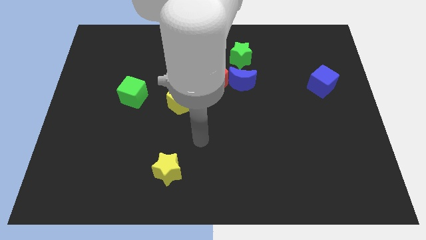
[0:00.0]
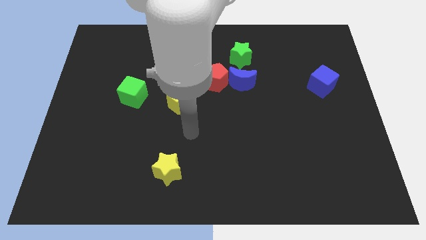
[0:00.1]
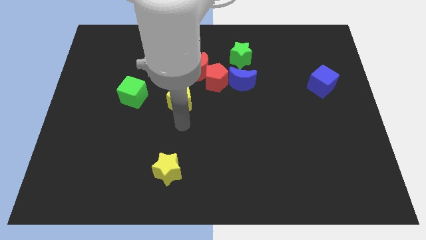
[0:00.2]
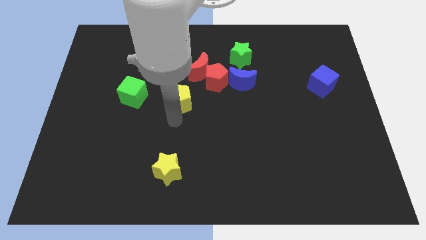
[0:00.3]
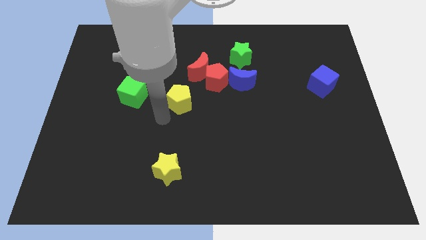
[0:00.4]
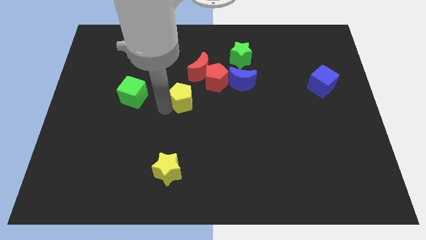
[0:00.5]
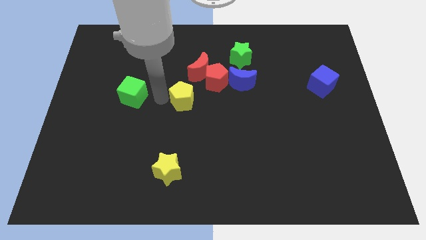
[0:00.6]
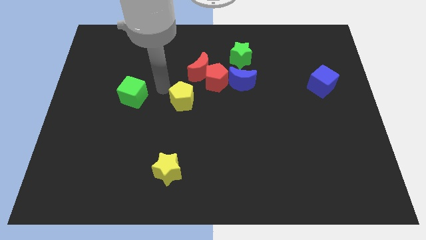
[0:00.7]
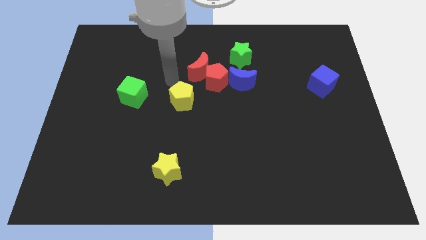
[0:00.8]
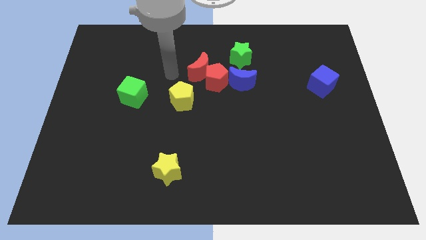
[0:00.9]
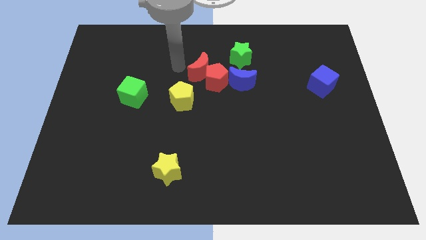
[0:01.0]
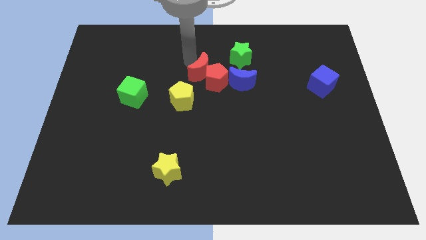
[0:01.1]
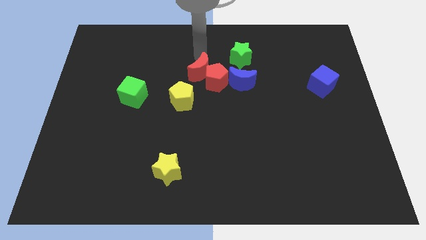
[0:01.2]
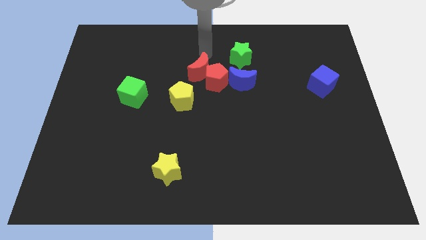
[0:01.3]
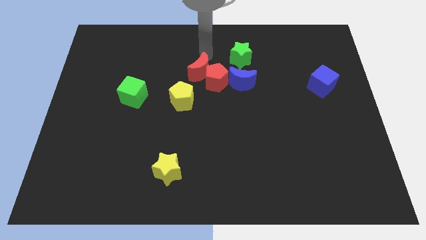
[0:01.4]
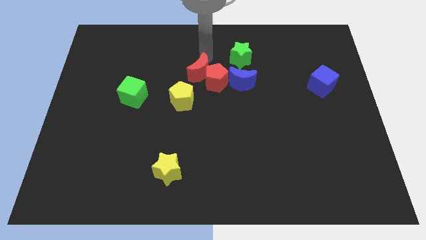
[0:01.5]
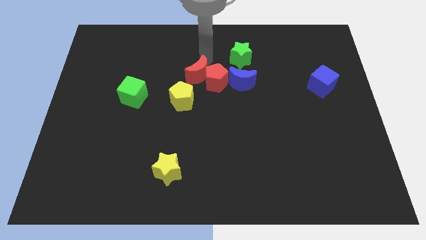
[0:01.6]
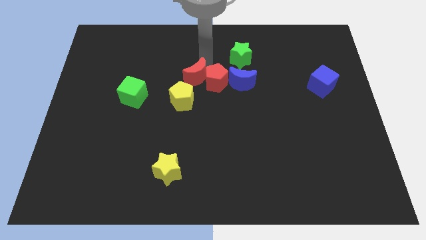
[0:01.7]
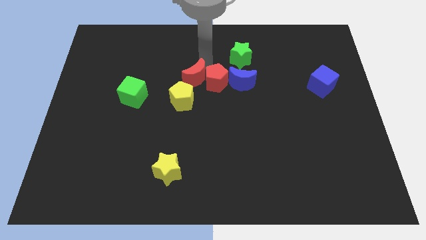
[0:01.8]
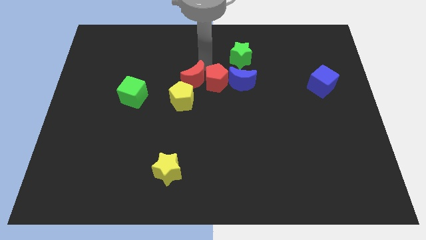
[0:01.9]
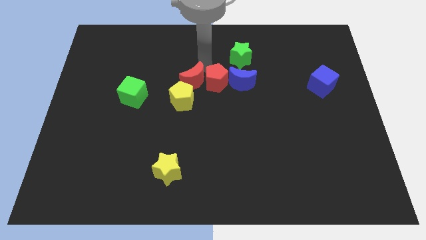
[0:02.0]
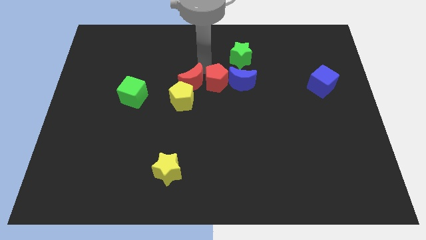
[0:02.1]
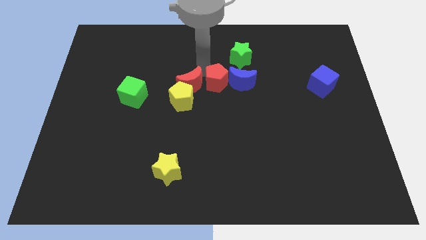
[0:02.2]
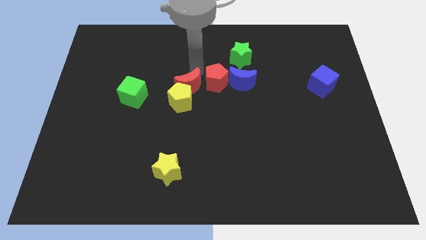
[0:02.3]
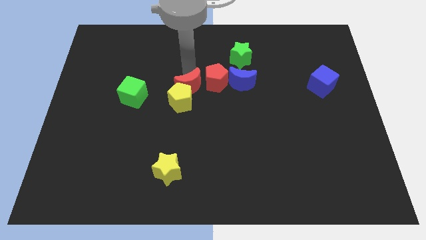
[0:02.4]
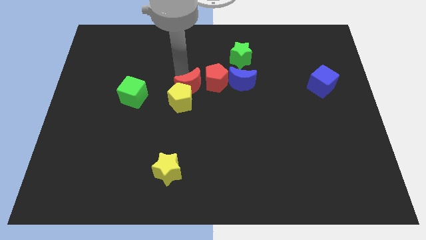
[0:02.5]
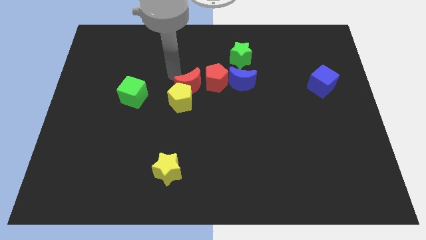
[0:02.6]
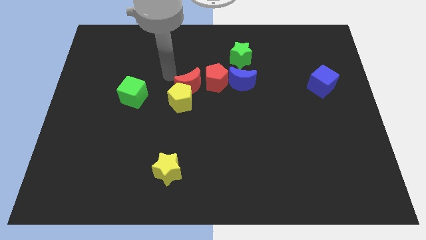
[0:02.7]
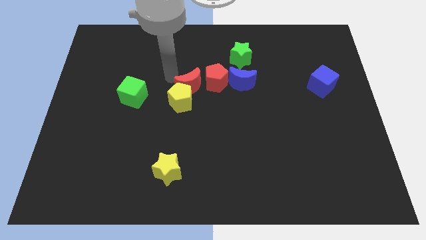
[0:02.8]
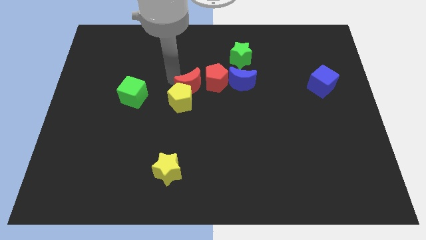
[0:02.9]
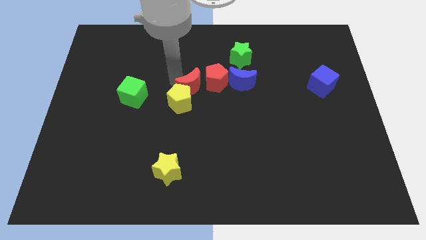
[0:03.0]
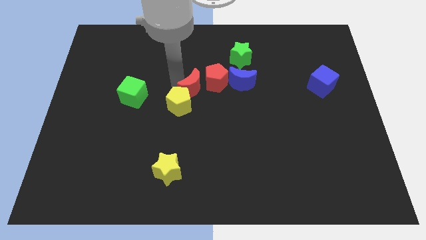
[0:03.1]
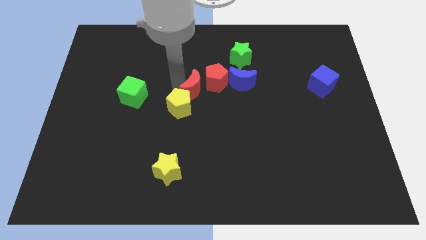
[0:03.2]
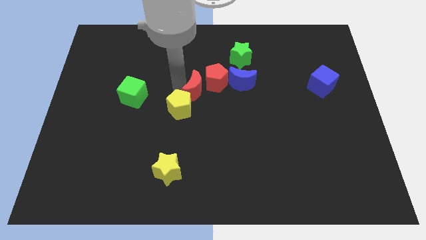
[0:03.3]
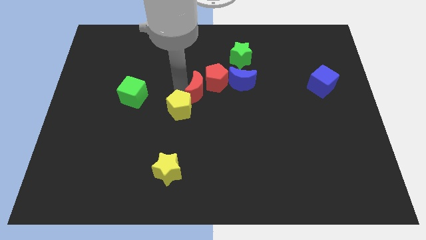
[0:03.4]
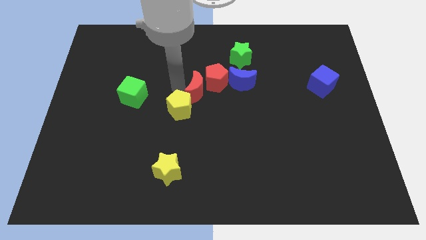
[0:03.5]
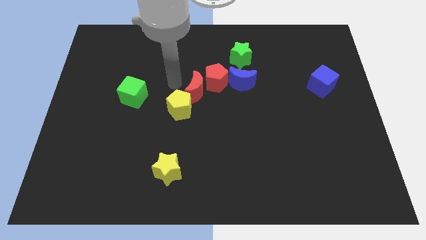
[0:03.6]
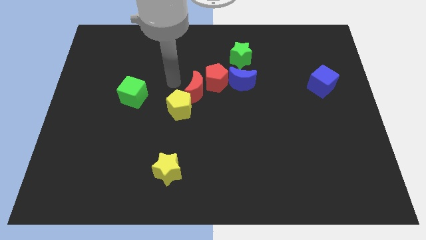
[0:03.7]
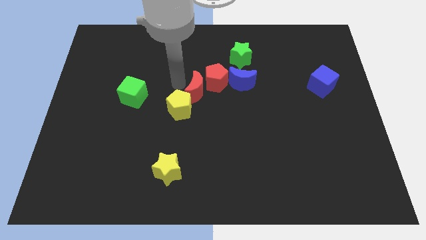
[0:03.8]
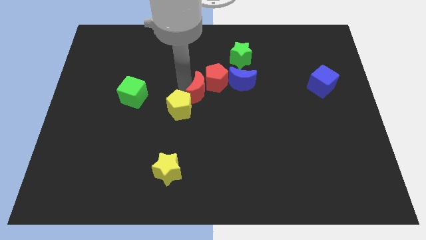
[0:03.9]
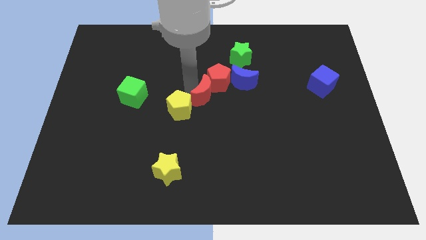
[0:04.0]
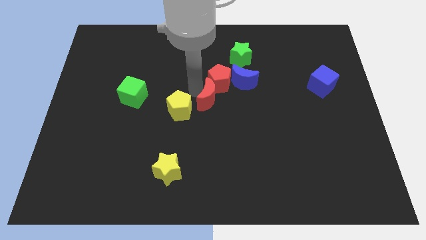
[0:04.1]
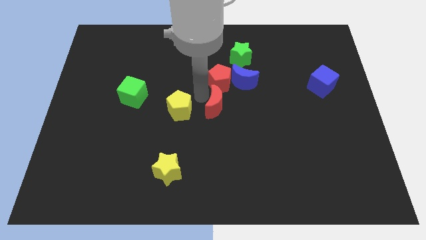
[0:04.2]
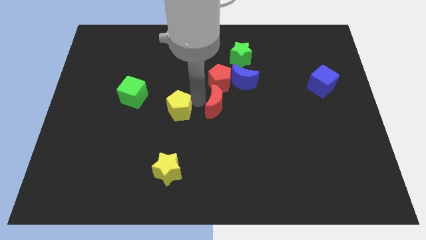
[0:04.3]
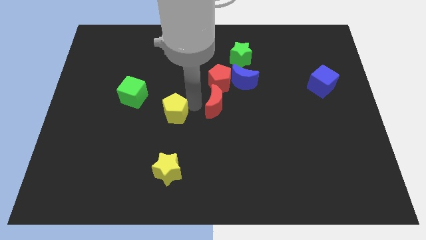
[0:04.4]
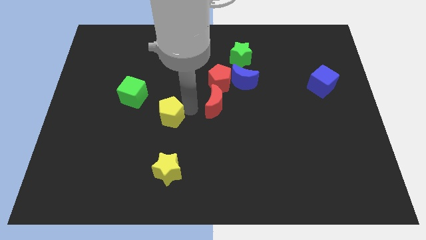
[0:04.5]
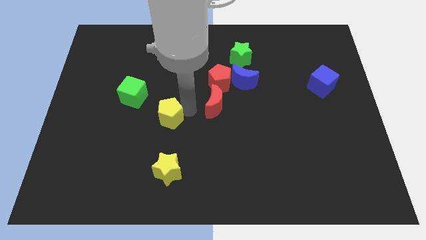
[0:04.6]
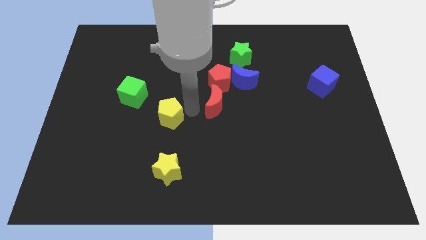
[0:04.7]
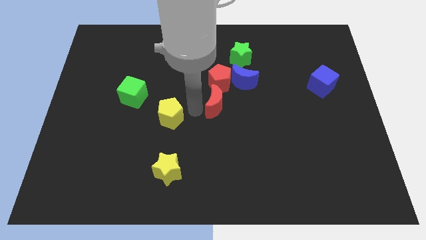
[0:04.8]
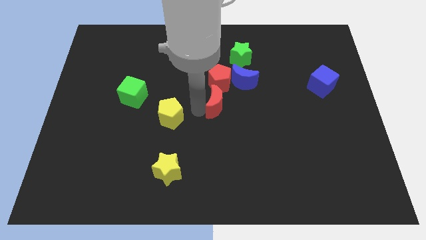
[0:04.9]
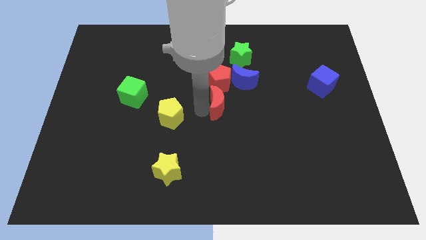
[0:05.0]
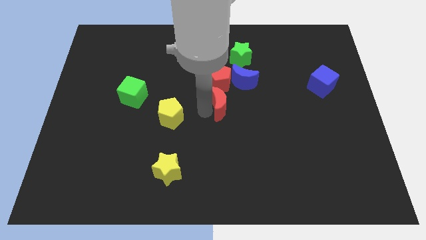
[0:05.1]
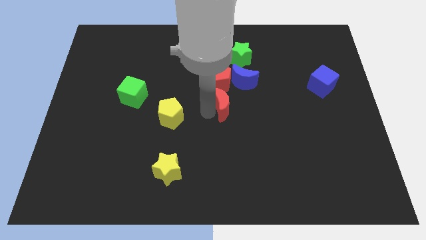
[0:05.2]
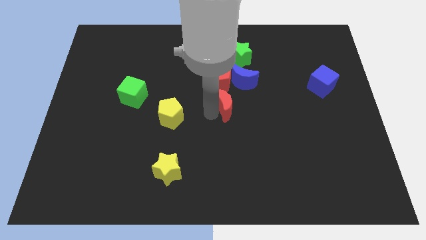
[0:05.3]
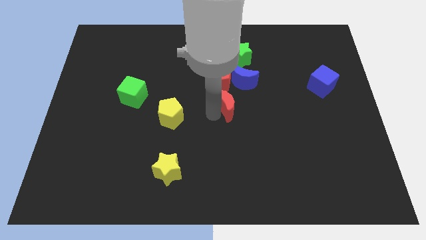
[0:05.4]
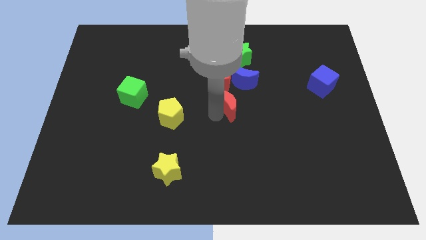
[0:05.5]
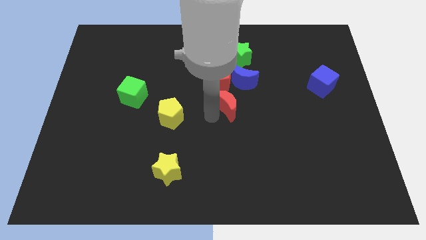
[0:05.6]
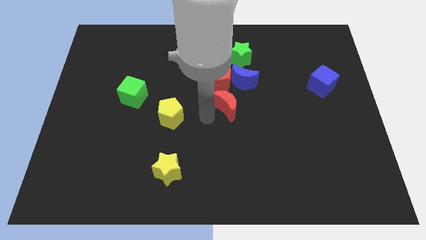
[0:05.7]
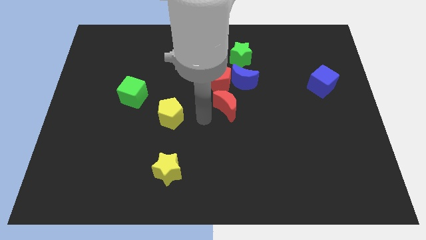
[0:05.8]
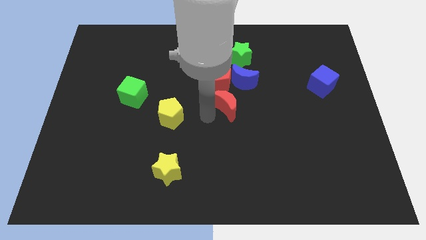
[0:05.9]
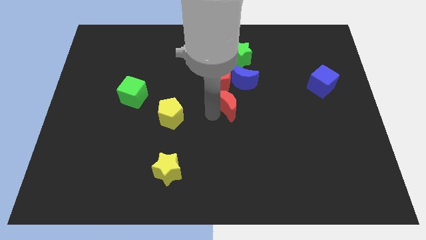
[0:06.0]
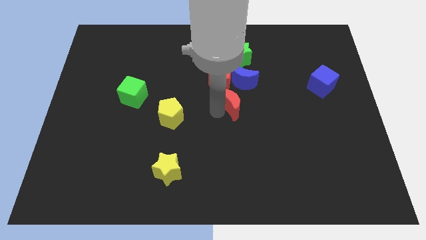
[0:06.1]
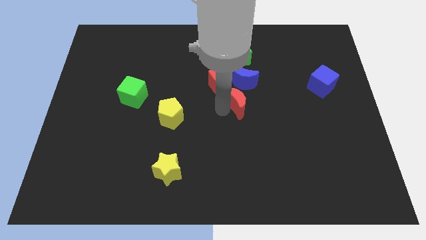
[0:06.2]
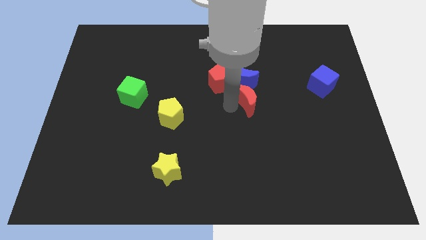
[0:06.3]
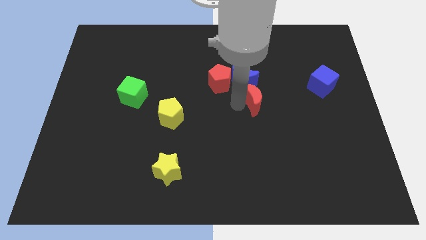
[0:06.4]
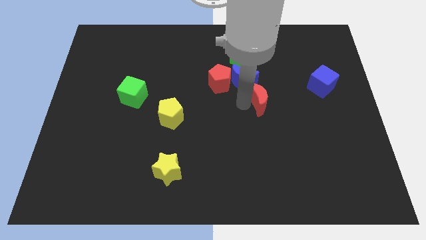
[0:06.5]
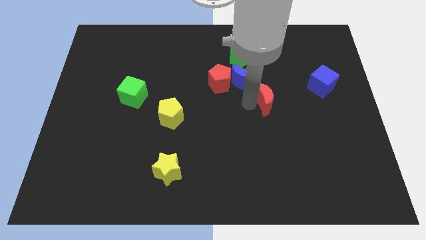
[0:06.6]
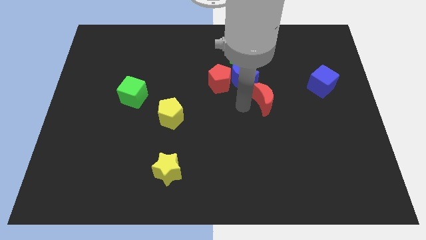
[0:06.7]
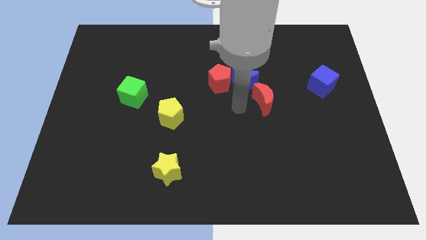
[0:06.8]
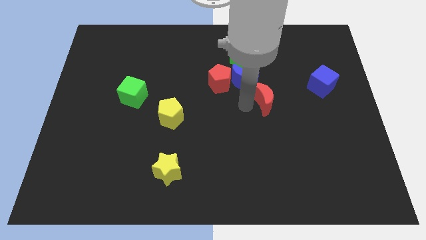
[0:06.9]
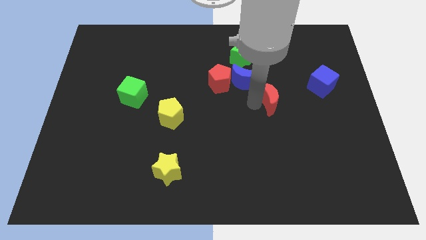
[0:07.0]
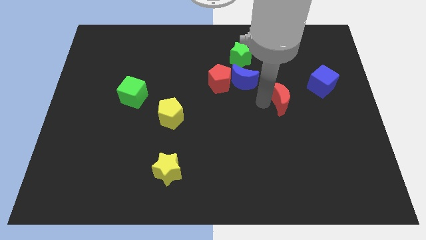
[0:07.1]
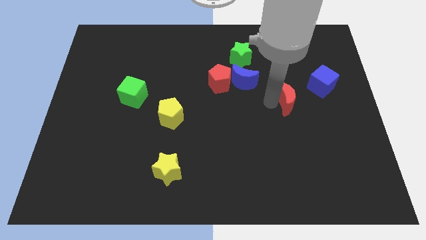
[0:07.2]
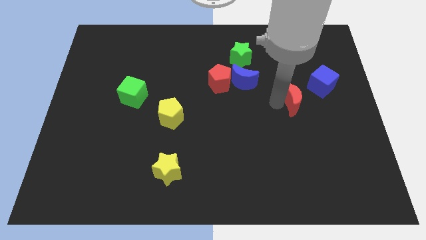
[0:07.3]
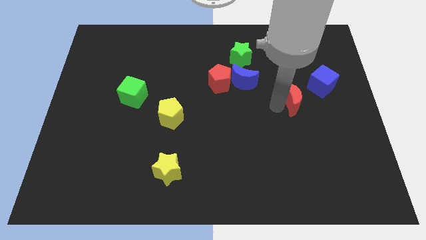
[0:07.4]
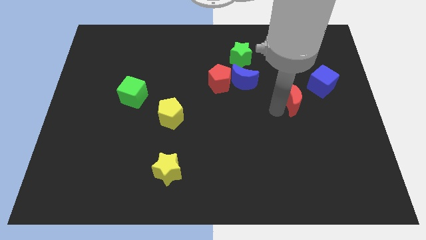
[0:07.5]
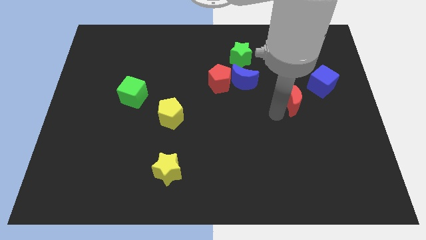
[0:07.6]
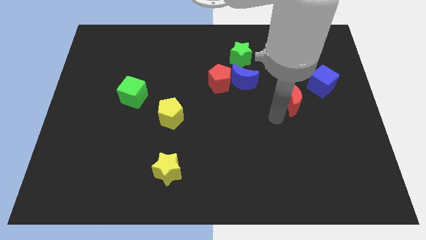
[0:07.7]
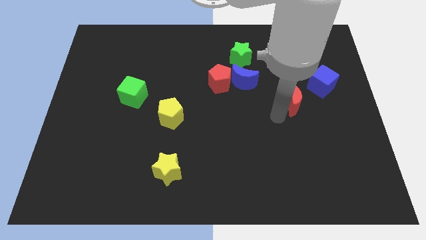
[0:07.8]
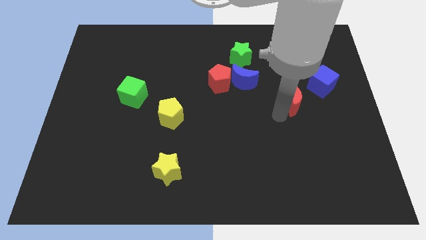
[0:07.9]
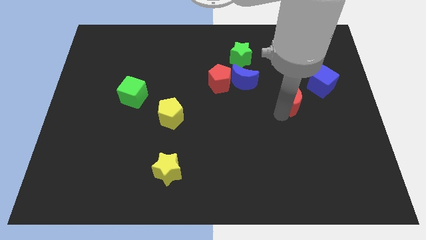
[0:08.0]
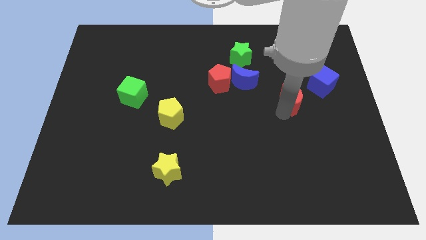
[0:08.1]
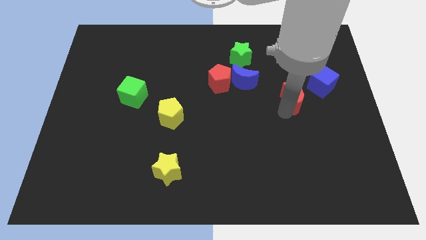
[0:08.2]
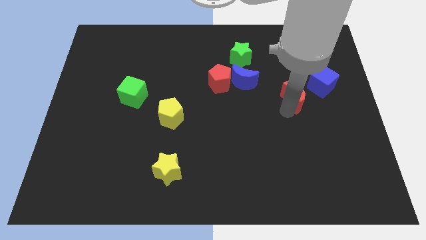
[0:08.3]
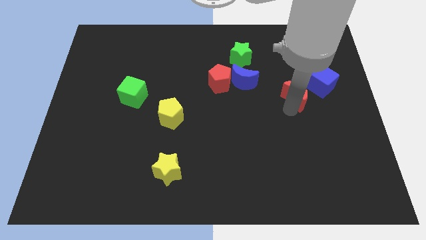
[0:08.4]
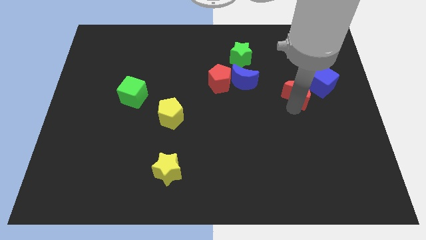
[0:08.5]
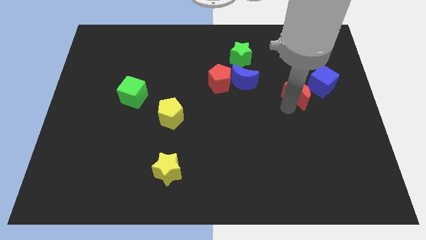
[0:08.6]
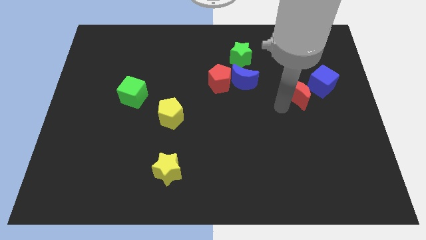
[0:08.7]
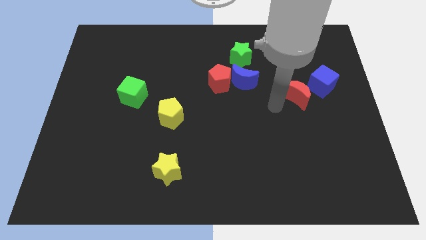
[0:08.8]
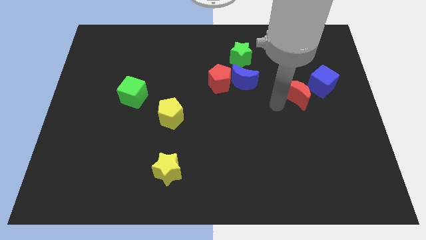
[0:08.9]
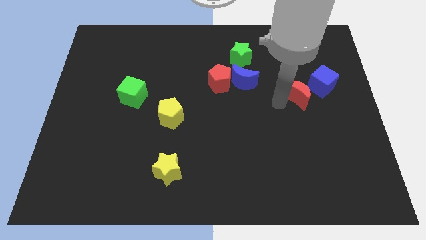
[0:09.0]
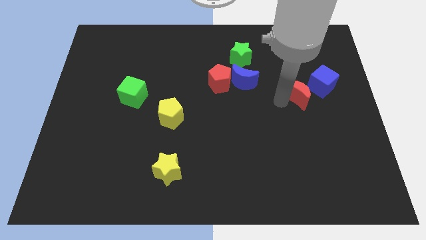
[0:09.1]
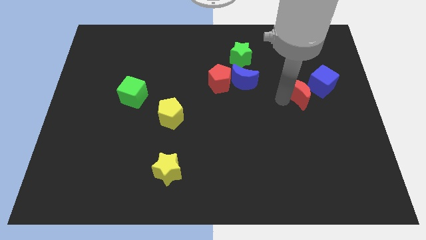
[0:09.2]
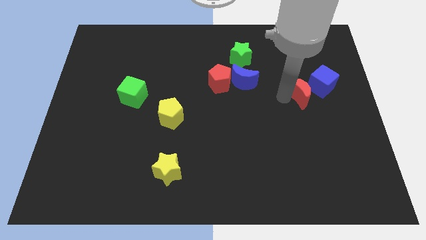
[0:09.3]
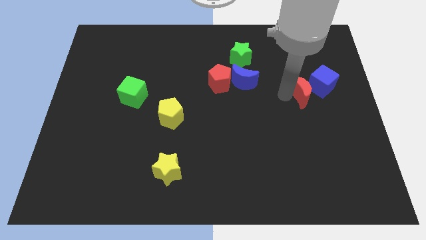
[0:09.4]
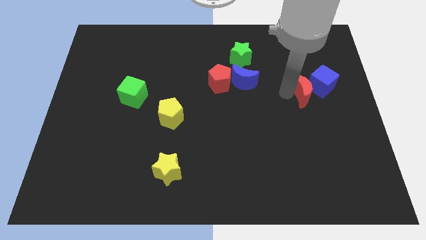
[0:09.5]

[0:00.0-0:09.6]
slide the red moon close to the blue cube
